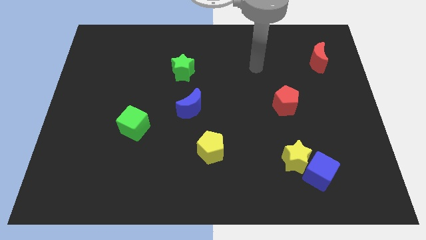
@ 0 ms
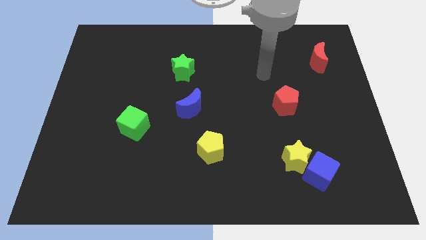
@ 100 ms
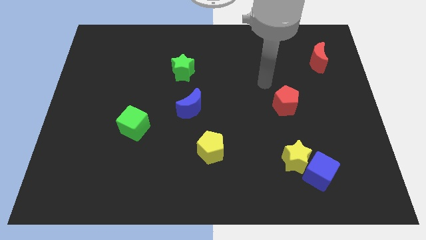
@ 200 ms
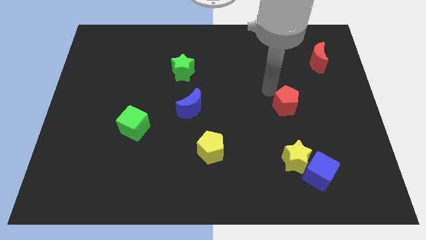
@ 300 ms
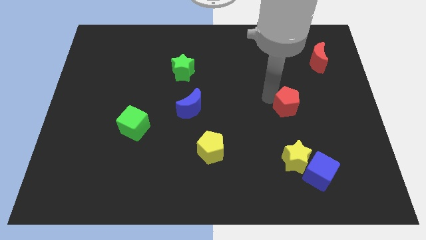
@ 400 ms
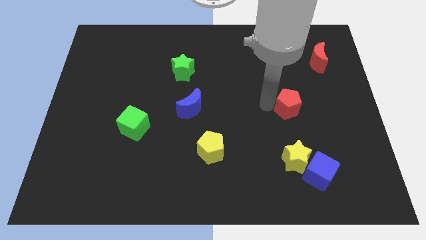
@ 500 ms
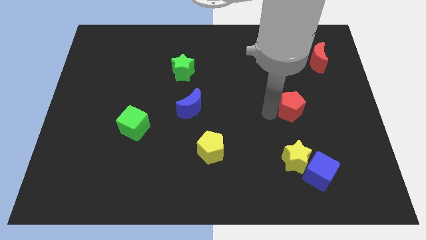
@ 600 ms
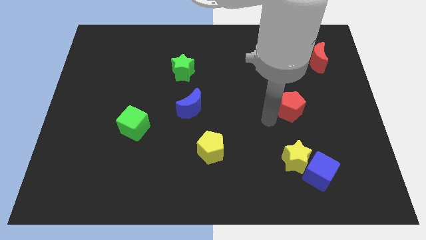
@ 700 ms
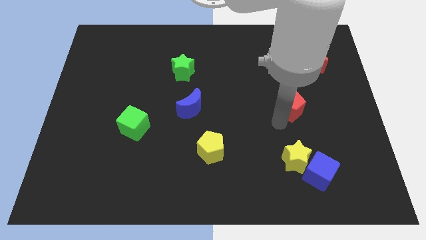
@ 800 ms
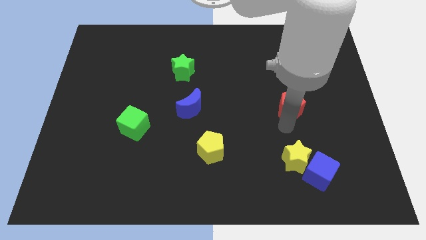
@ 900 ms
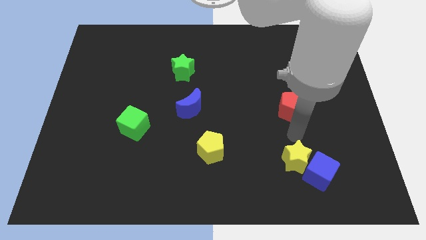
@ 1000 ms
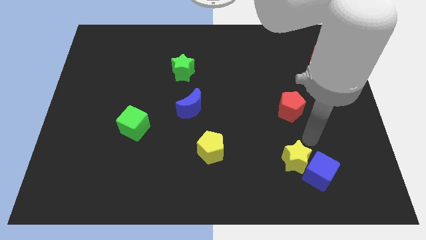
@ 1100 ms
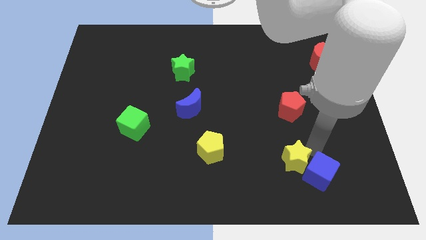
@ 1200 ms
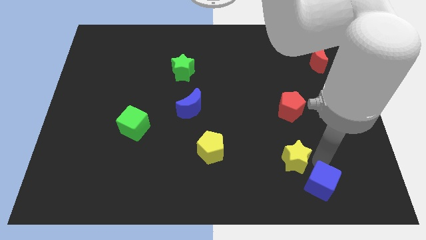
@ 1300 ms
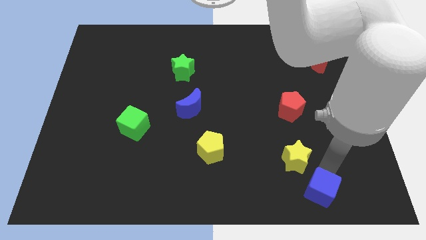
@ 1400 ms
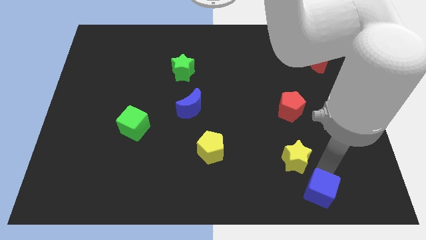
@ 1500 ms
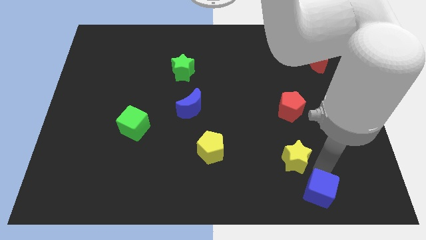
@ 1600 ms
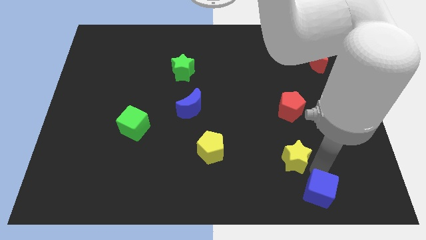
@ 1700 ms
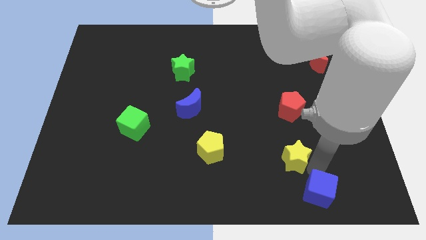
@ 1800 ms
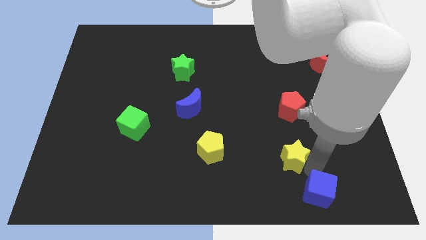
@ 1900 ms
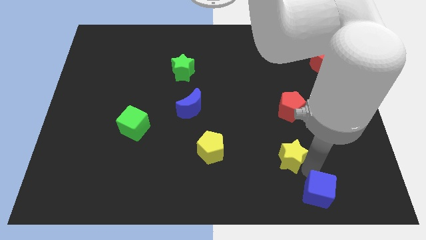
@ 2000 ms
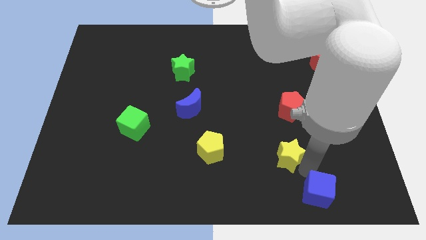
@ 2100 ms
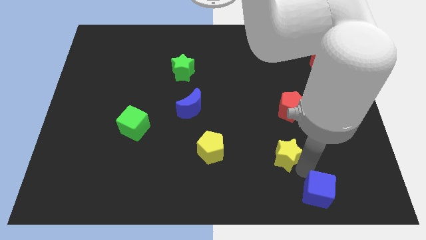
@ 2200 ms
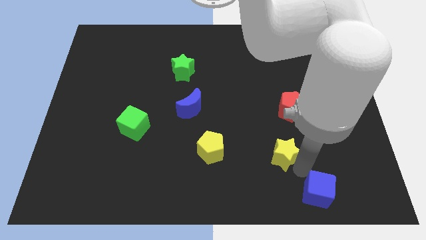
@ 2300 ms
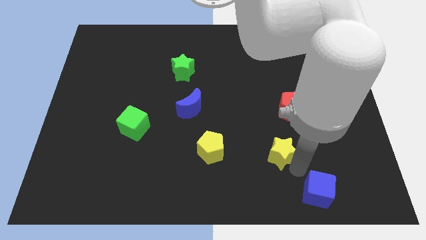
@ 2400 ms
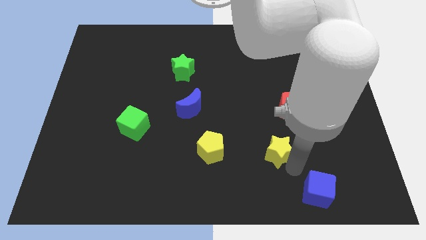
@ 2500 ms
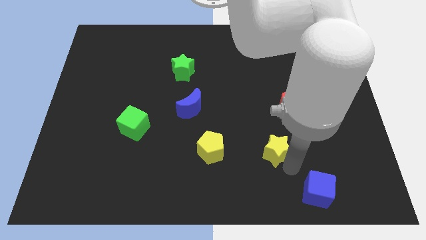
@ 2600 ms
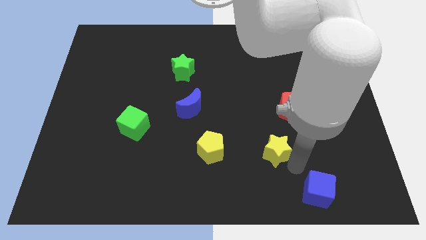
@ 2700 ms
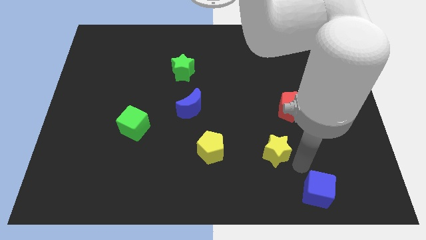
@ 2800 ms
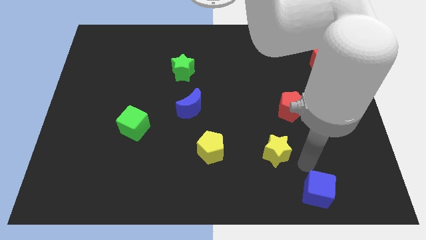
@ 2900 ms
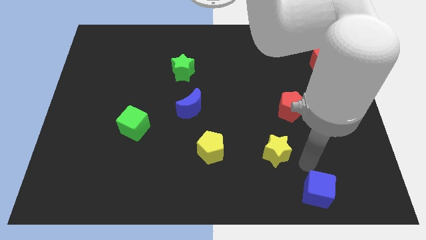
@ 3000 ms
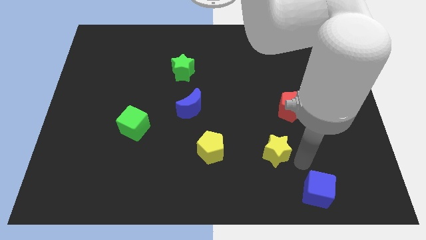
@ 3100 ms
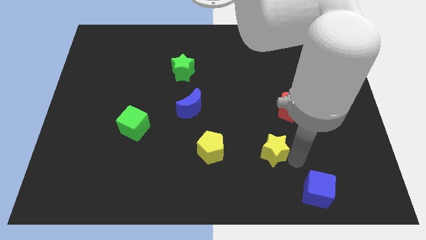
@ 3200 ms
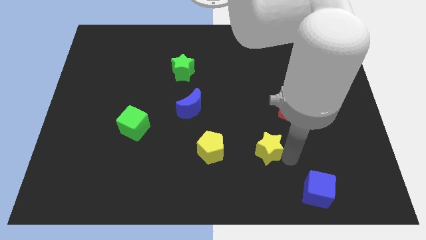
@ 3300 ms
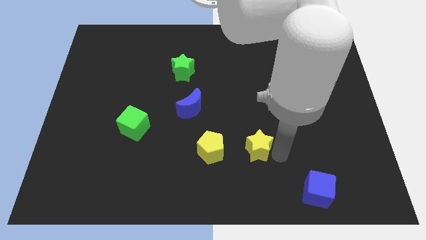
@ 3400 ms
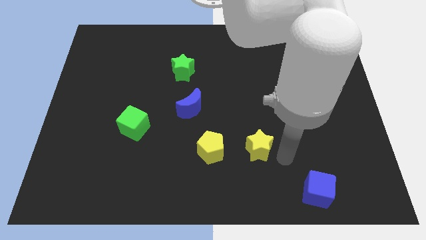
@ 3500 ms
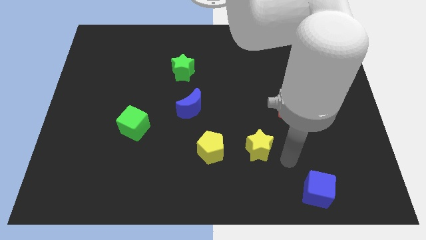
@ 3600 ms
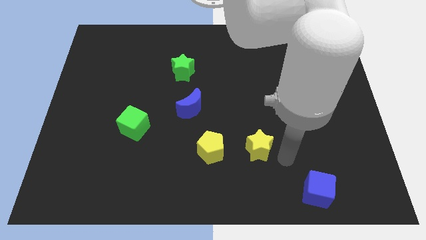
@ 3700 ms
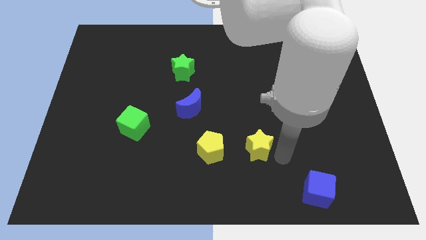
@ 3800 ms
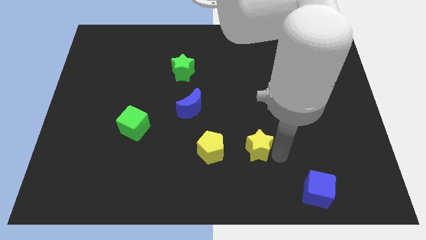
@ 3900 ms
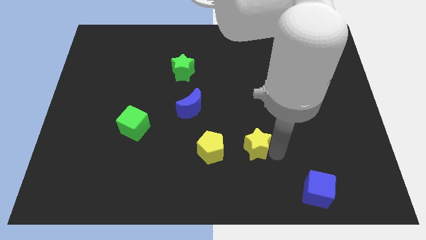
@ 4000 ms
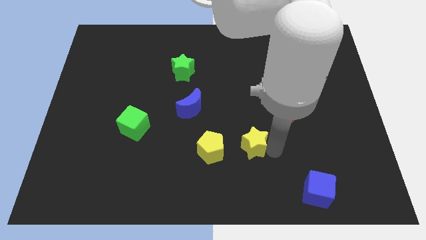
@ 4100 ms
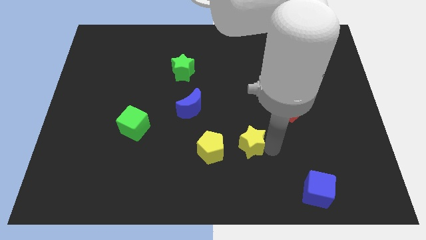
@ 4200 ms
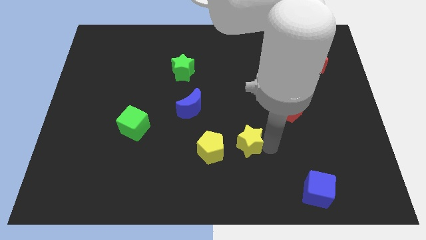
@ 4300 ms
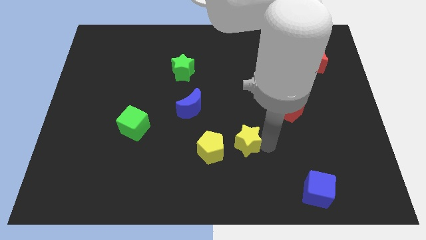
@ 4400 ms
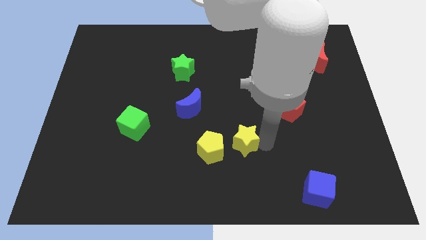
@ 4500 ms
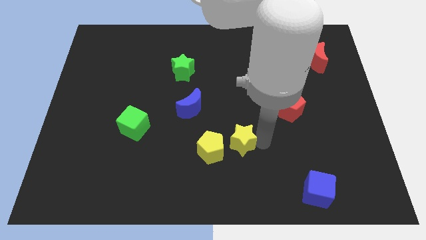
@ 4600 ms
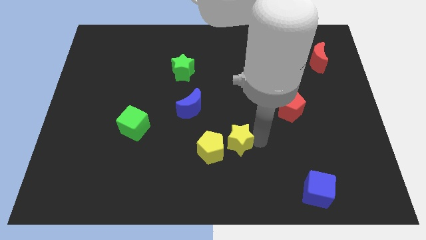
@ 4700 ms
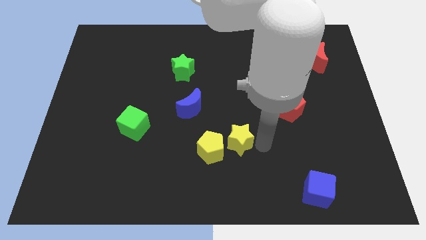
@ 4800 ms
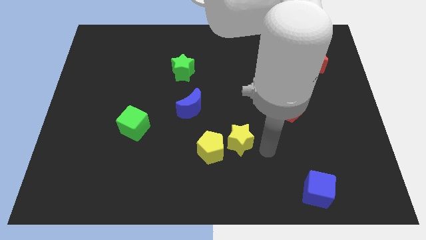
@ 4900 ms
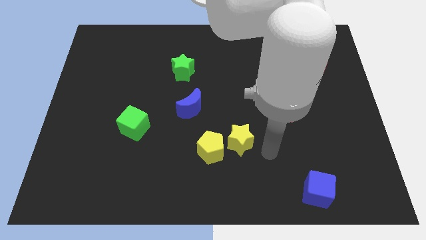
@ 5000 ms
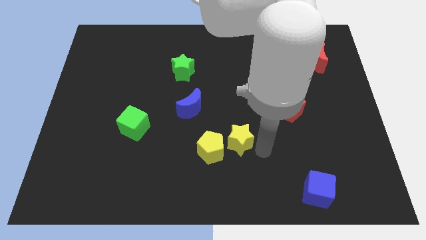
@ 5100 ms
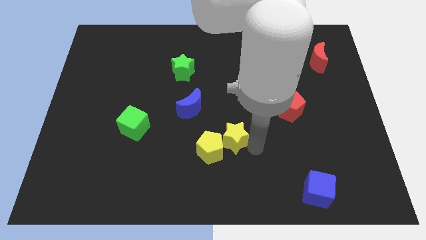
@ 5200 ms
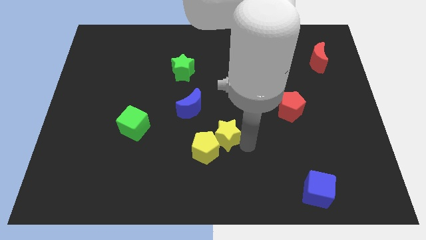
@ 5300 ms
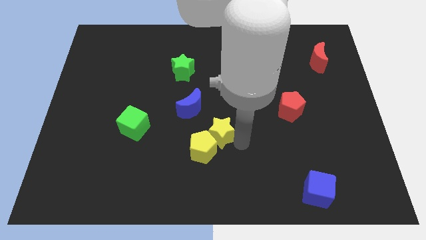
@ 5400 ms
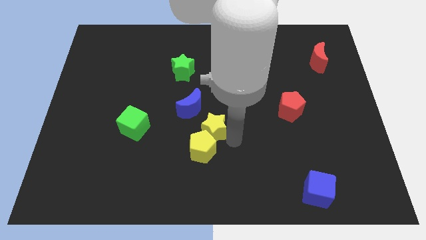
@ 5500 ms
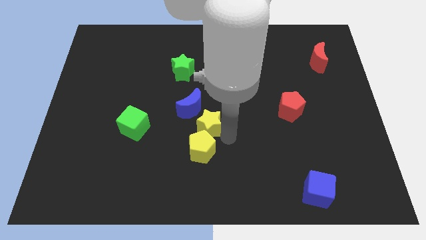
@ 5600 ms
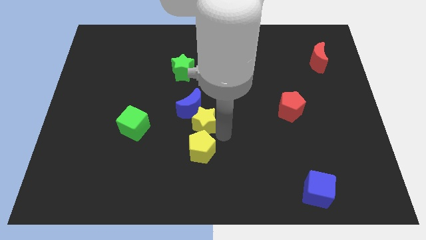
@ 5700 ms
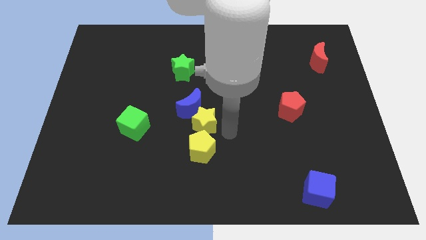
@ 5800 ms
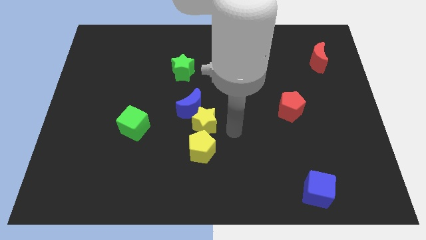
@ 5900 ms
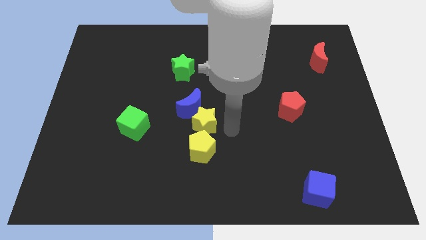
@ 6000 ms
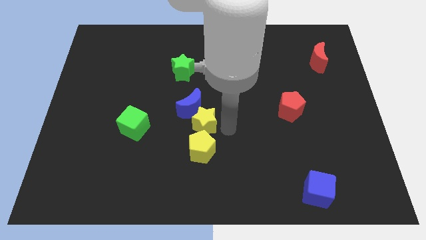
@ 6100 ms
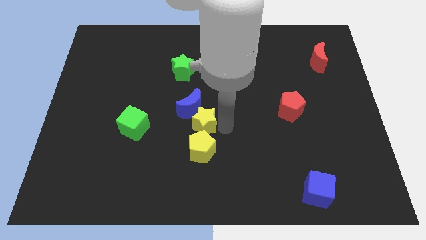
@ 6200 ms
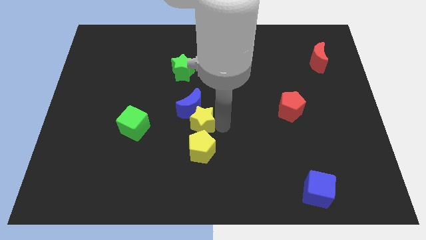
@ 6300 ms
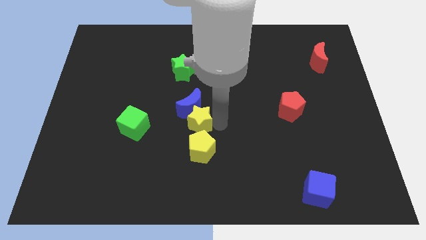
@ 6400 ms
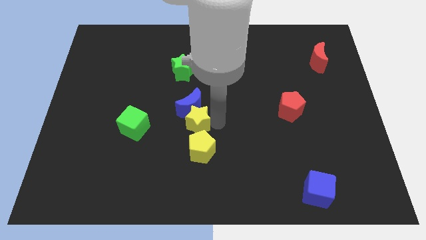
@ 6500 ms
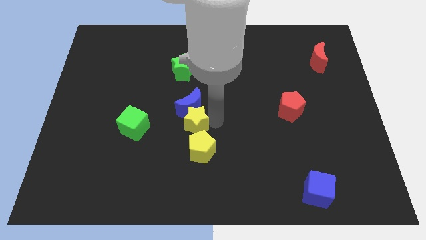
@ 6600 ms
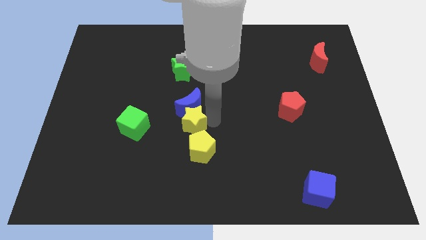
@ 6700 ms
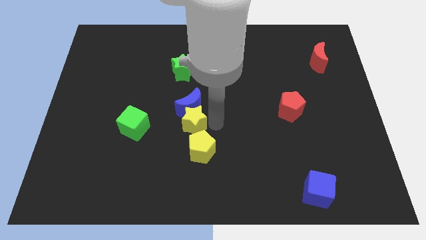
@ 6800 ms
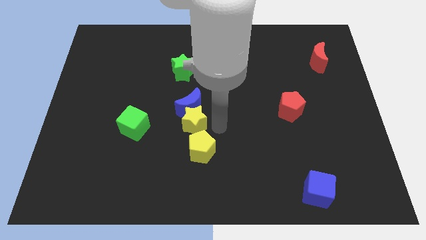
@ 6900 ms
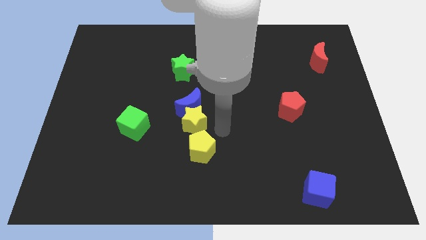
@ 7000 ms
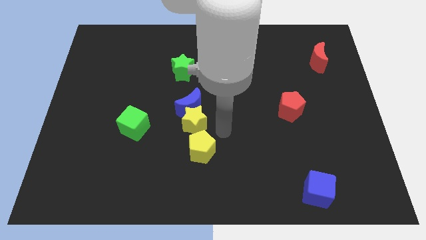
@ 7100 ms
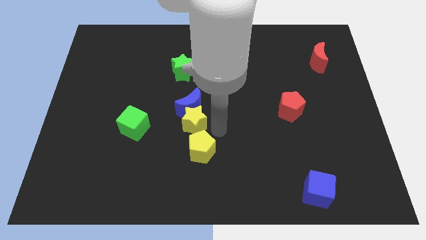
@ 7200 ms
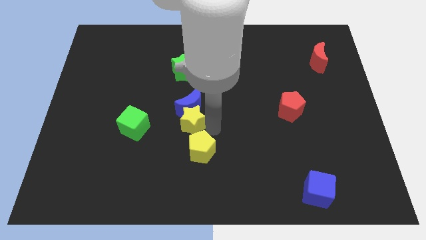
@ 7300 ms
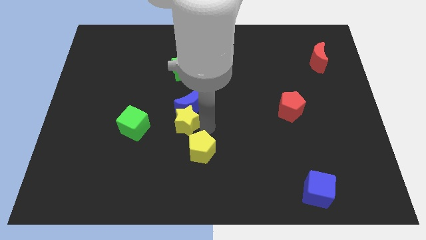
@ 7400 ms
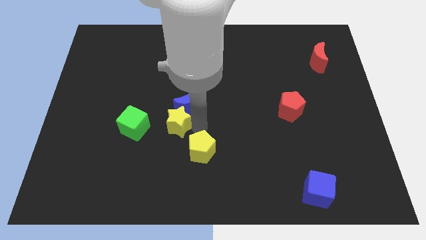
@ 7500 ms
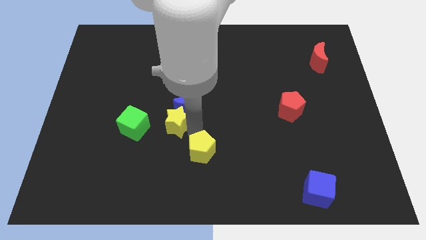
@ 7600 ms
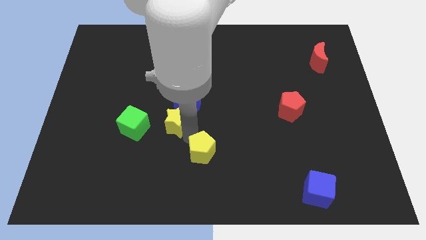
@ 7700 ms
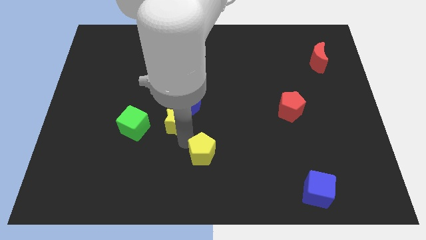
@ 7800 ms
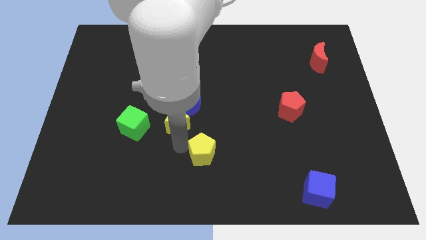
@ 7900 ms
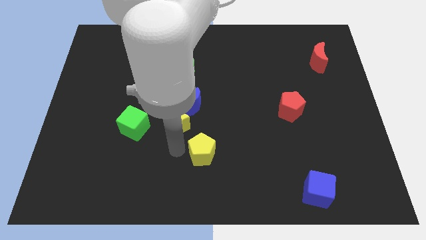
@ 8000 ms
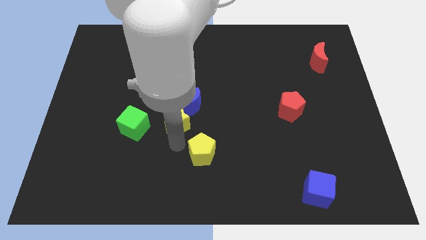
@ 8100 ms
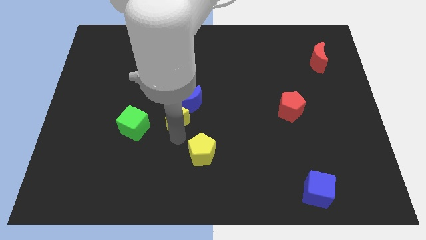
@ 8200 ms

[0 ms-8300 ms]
push the yellow star to the bottom of the green star

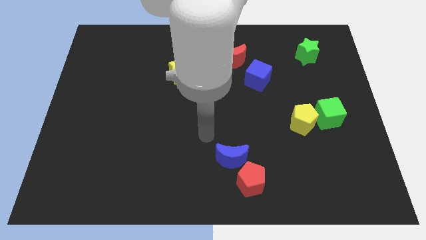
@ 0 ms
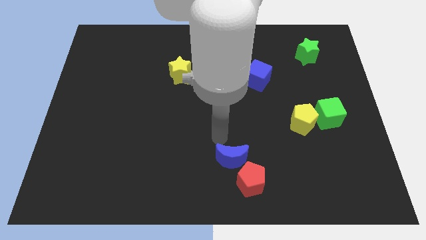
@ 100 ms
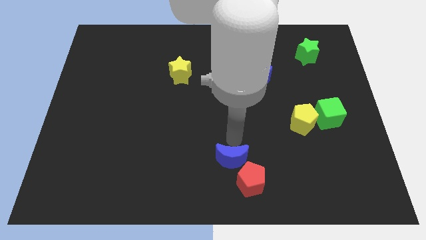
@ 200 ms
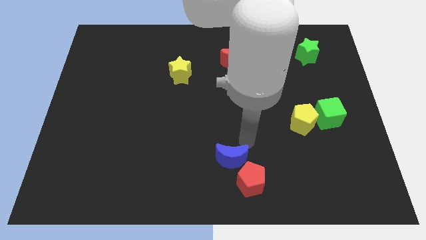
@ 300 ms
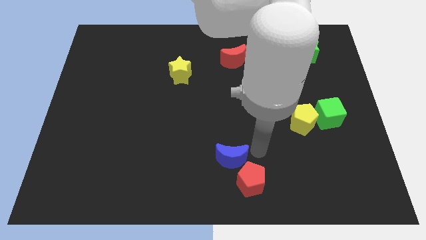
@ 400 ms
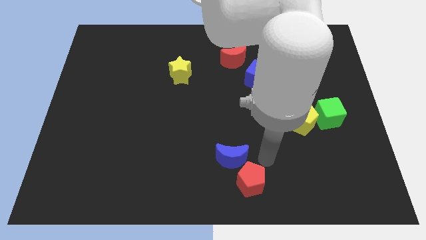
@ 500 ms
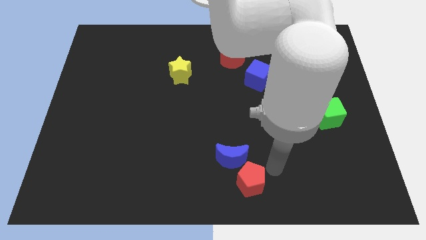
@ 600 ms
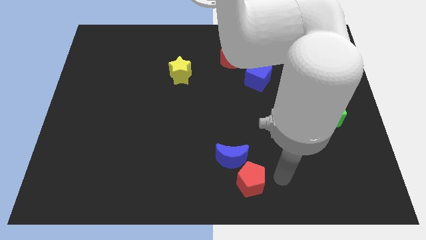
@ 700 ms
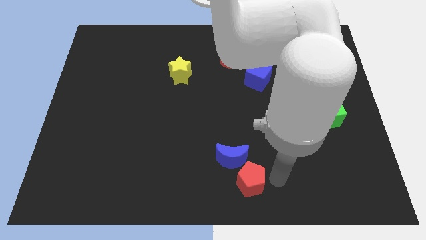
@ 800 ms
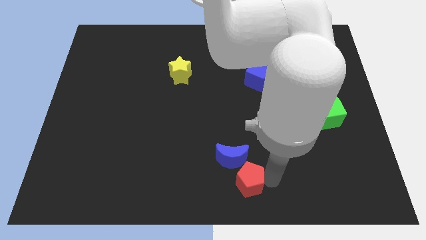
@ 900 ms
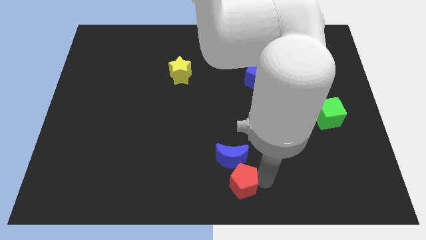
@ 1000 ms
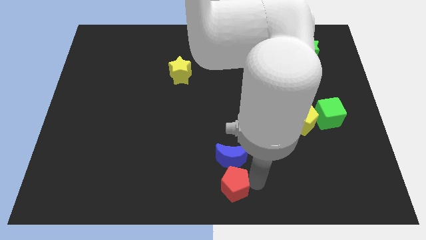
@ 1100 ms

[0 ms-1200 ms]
slide the red pentagon to the bottom left of the blue moon
